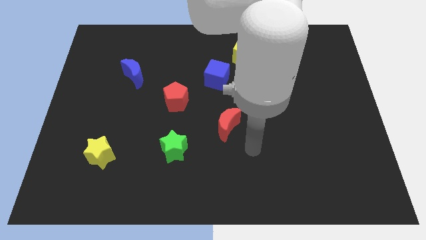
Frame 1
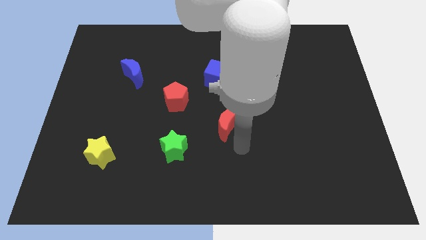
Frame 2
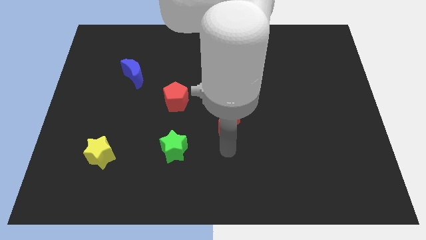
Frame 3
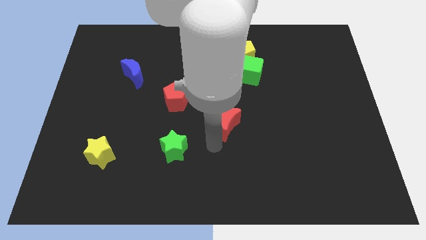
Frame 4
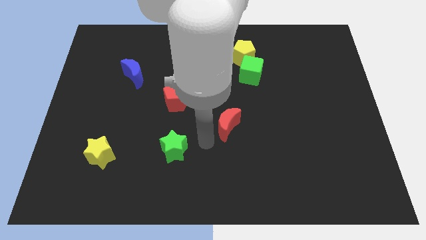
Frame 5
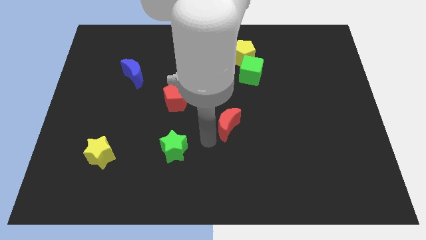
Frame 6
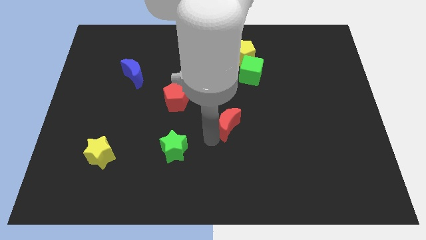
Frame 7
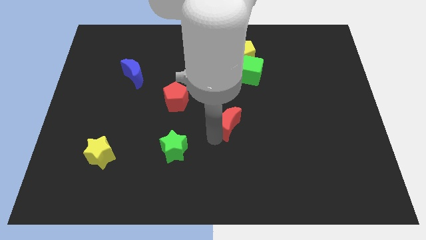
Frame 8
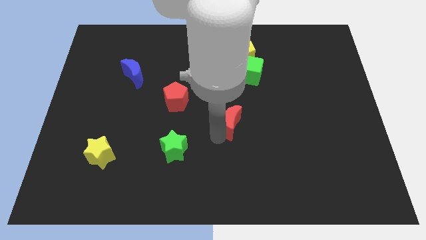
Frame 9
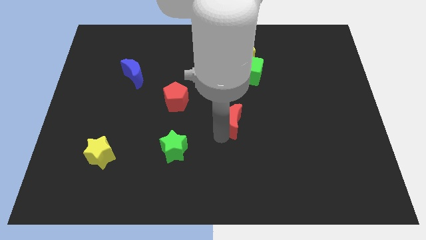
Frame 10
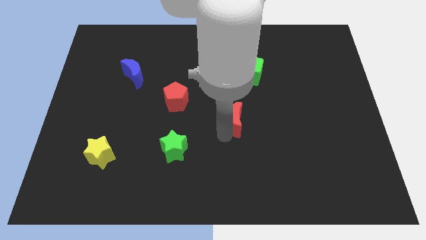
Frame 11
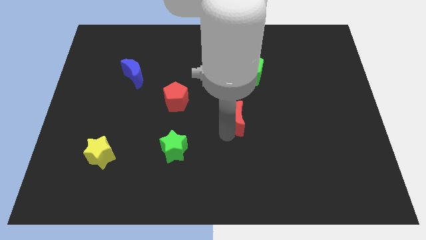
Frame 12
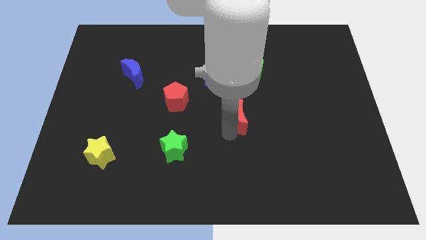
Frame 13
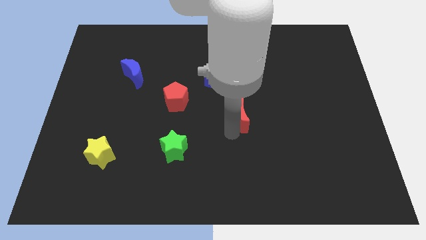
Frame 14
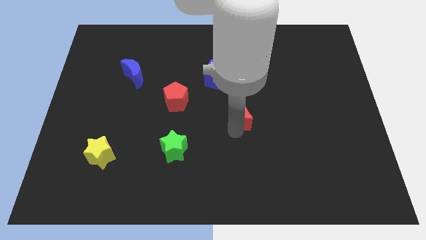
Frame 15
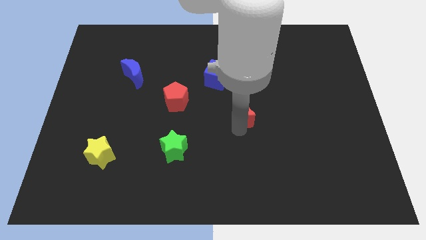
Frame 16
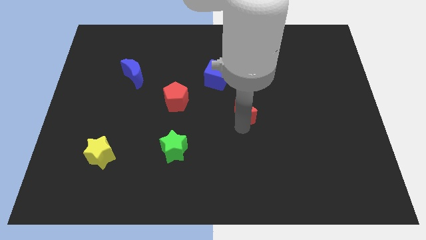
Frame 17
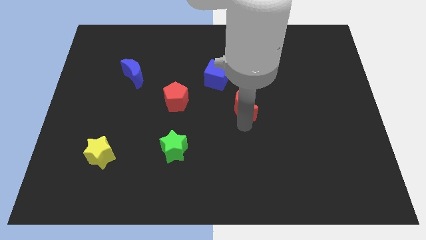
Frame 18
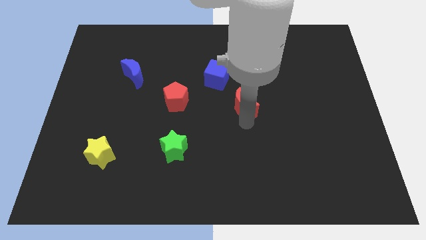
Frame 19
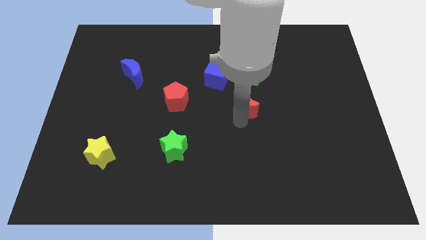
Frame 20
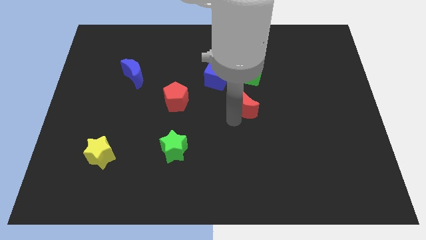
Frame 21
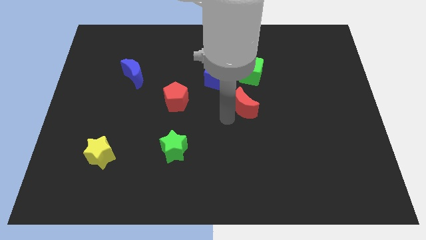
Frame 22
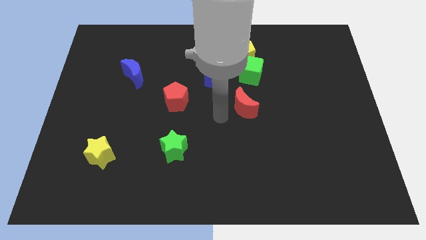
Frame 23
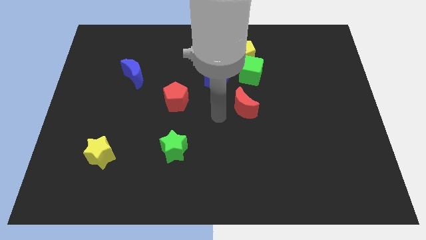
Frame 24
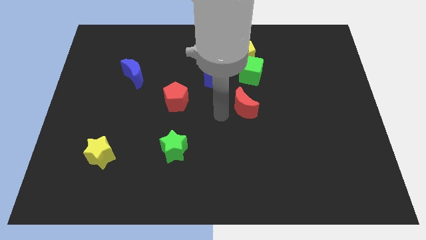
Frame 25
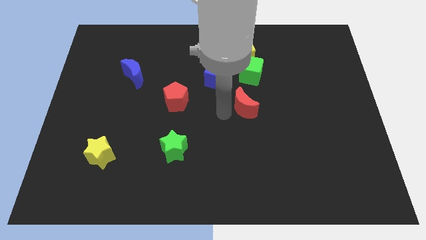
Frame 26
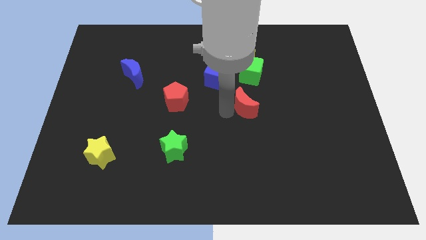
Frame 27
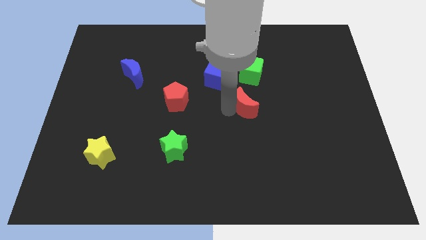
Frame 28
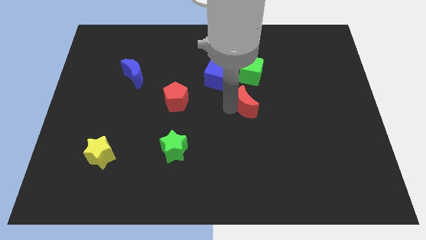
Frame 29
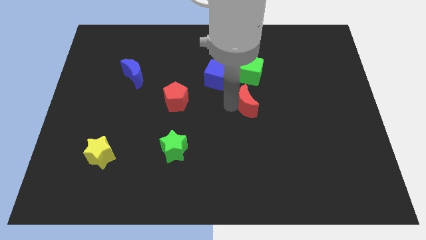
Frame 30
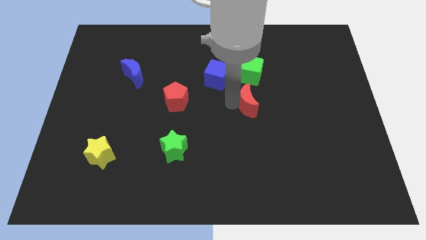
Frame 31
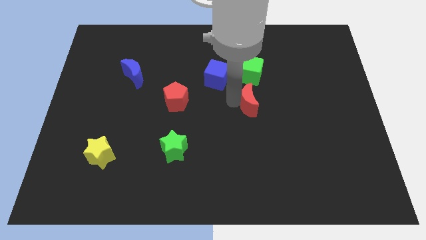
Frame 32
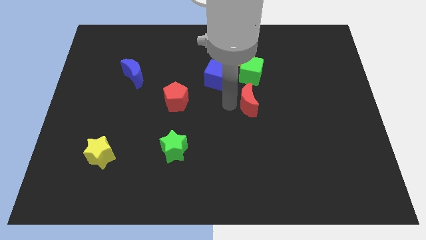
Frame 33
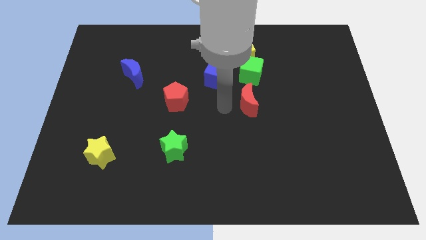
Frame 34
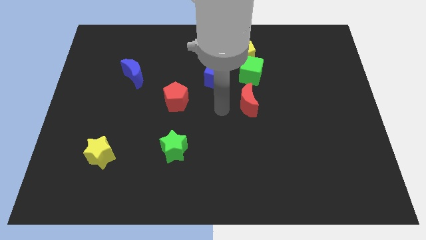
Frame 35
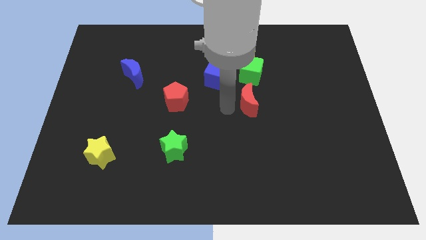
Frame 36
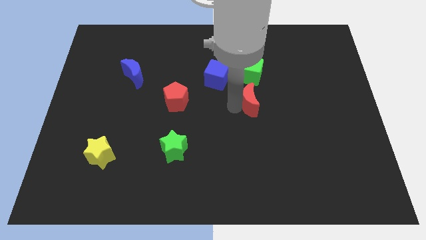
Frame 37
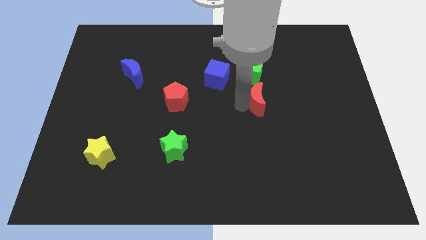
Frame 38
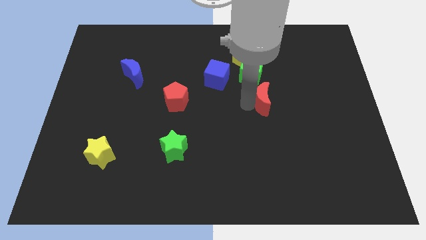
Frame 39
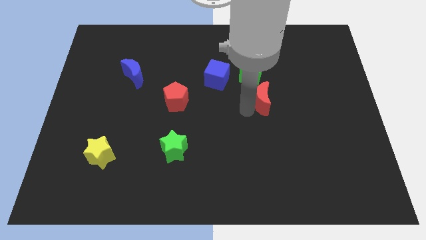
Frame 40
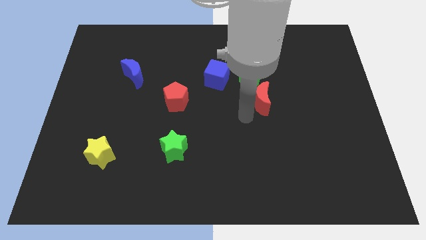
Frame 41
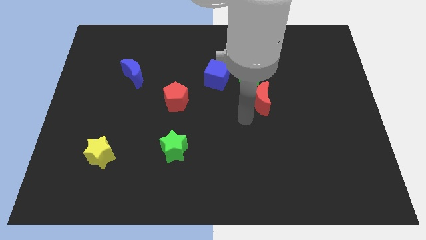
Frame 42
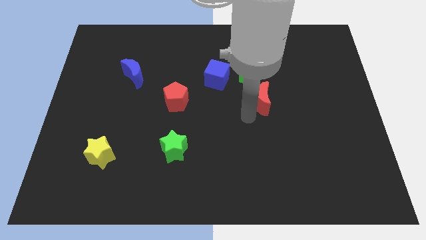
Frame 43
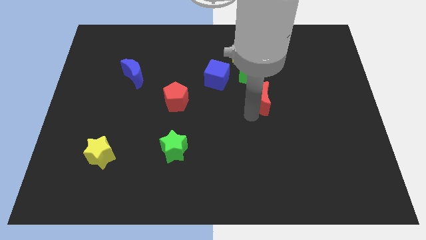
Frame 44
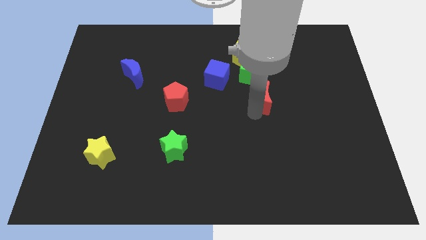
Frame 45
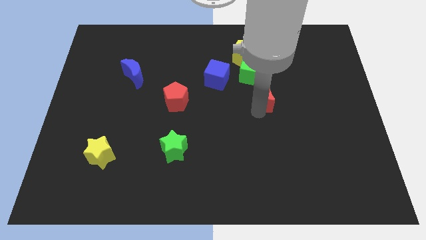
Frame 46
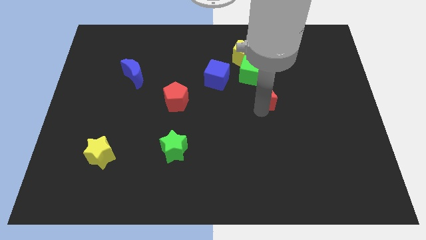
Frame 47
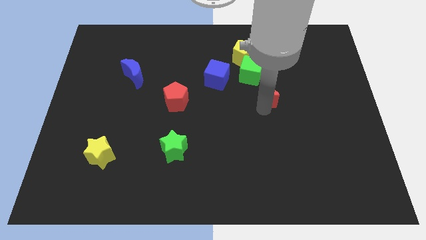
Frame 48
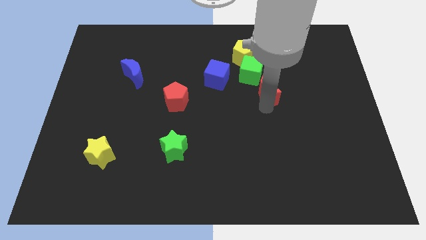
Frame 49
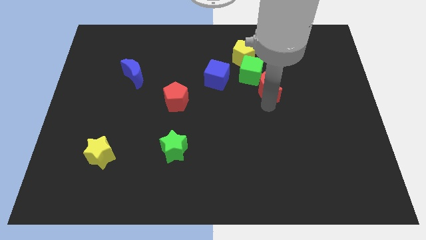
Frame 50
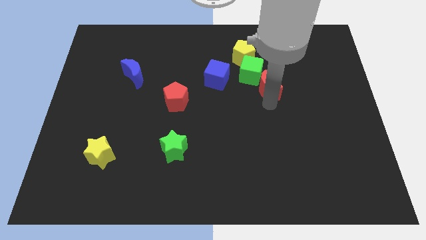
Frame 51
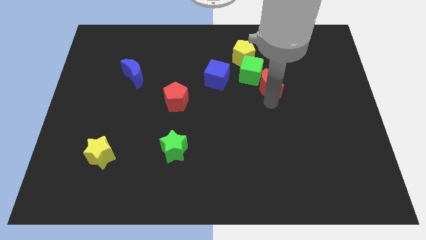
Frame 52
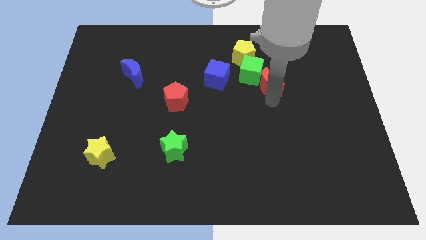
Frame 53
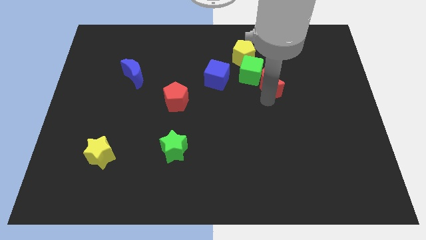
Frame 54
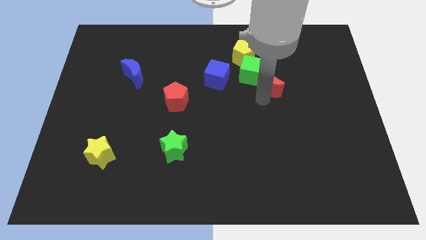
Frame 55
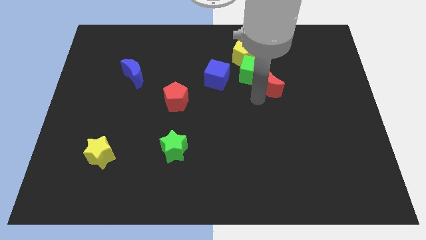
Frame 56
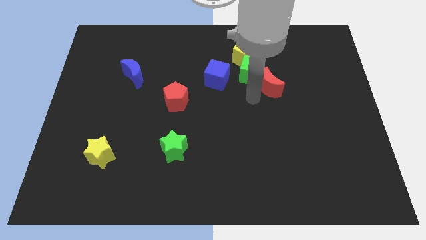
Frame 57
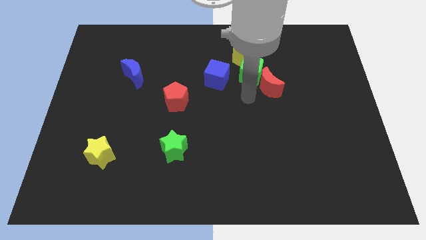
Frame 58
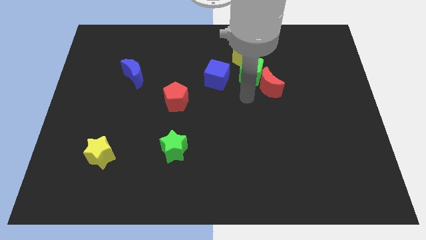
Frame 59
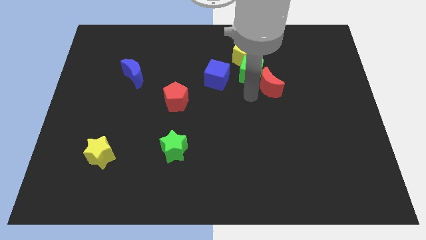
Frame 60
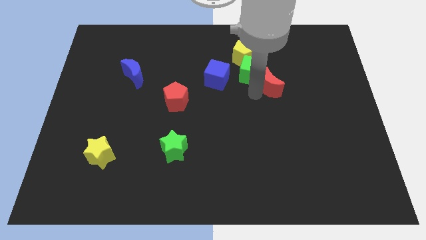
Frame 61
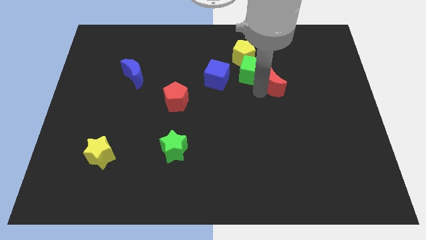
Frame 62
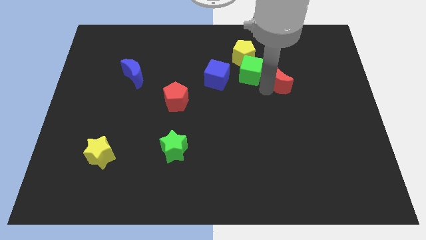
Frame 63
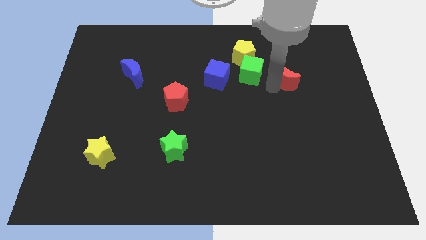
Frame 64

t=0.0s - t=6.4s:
slide the red moon upwards and right

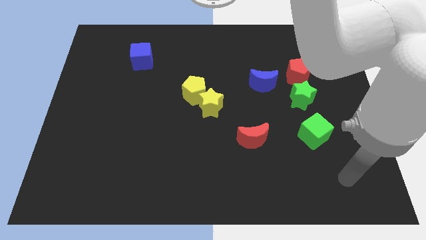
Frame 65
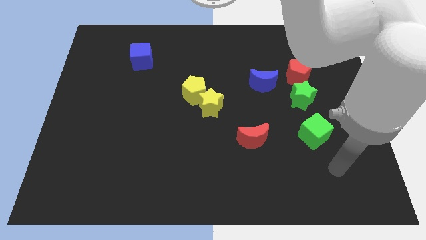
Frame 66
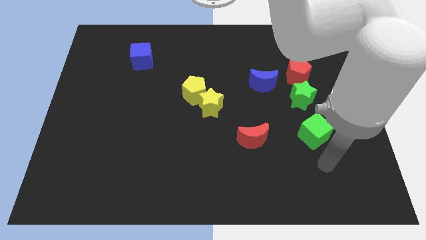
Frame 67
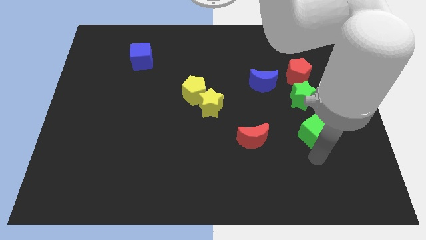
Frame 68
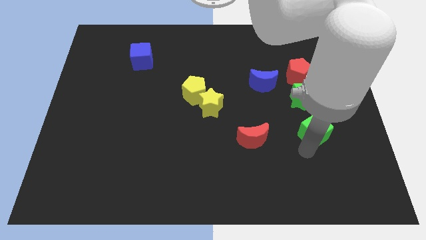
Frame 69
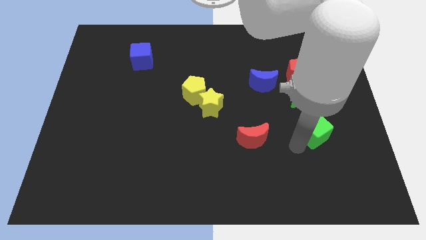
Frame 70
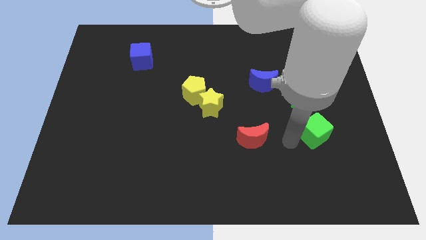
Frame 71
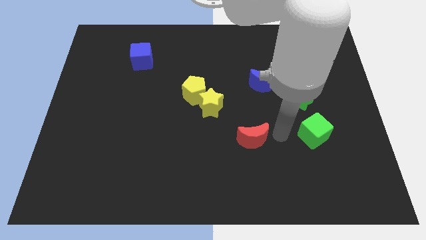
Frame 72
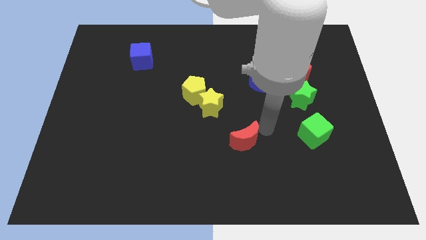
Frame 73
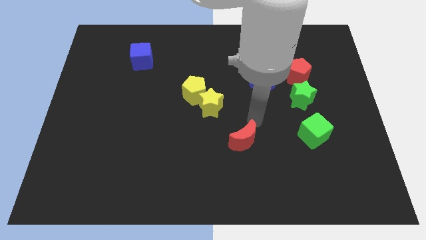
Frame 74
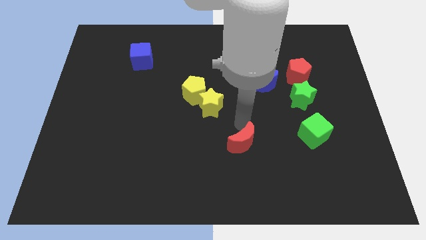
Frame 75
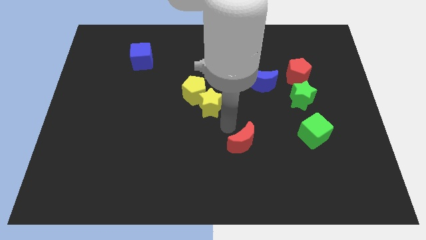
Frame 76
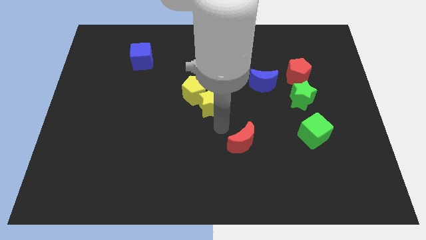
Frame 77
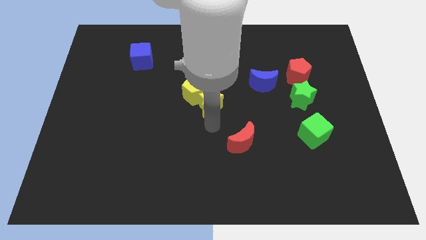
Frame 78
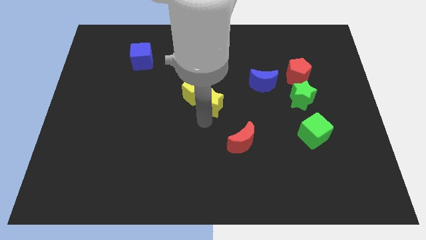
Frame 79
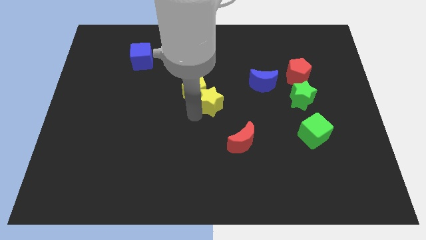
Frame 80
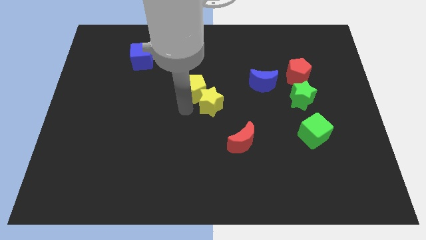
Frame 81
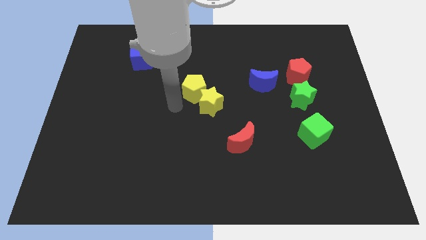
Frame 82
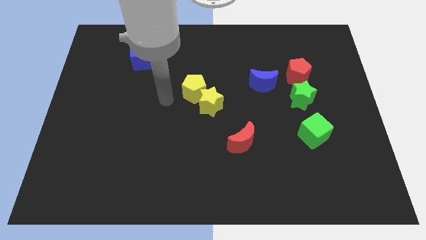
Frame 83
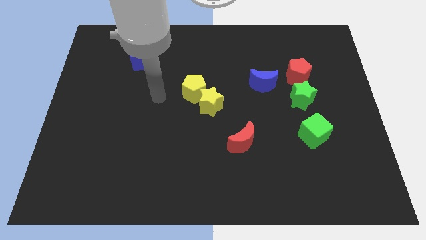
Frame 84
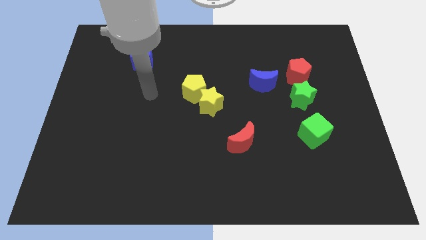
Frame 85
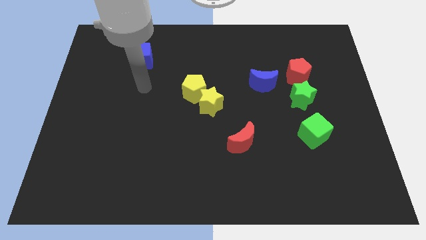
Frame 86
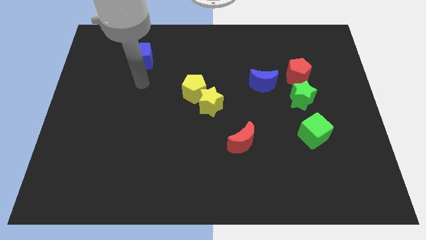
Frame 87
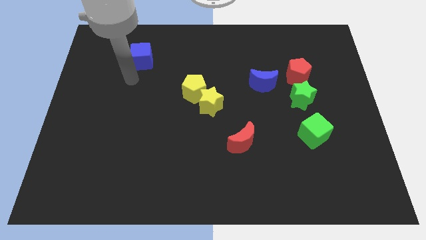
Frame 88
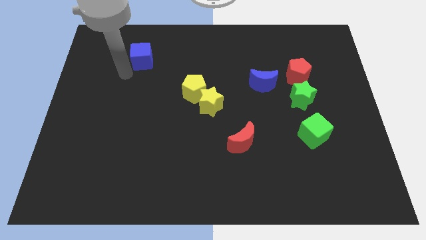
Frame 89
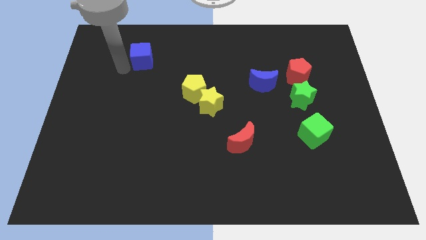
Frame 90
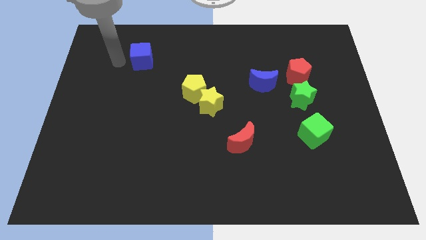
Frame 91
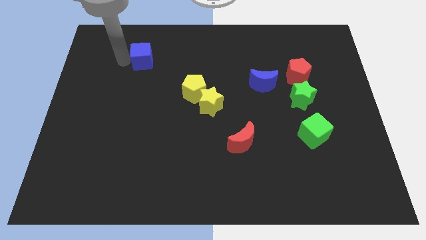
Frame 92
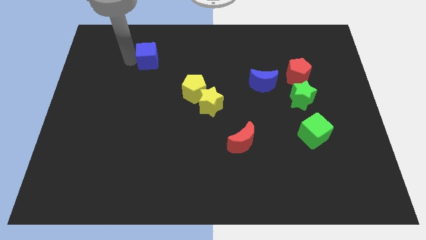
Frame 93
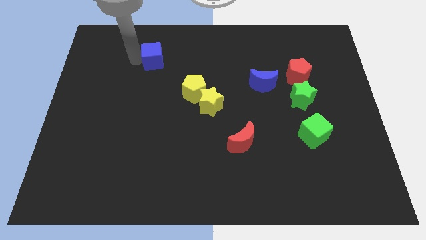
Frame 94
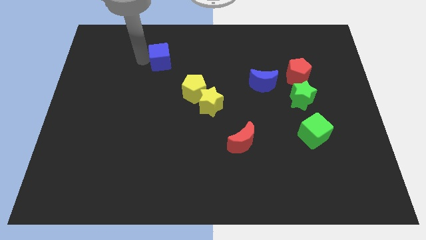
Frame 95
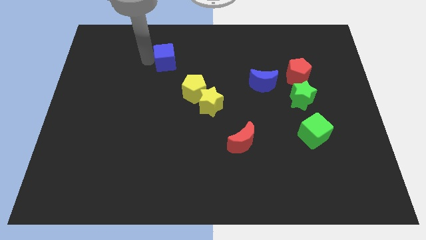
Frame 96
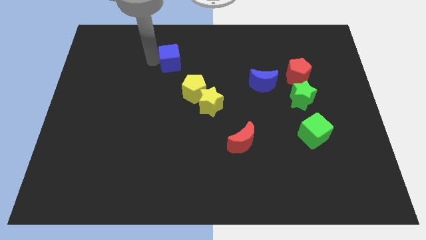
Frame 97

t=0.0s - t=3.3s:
slide the blue cube to the right a little
